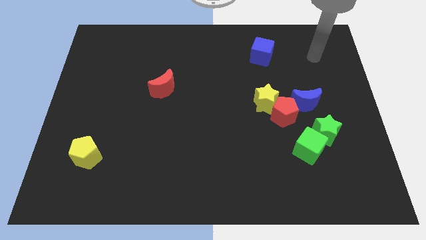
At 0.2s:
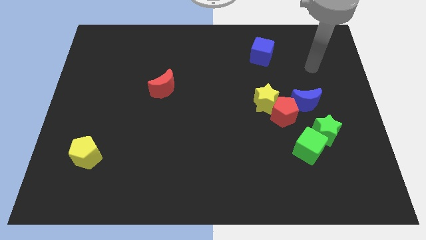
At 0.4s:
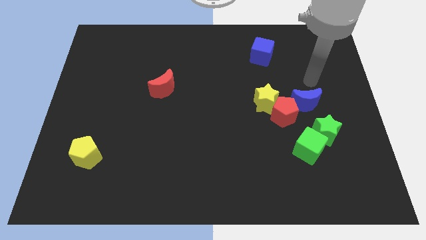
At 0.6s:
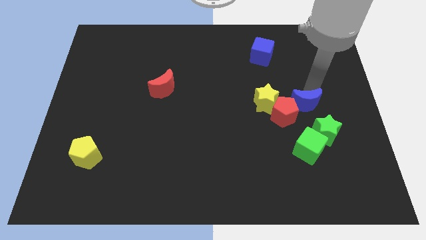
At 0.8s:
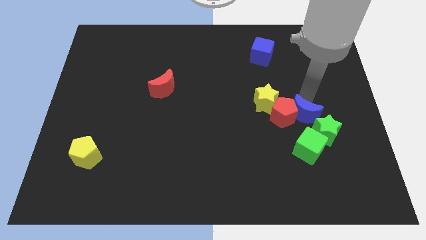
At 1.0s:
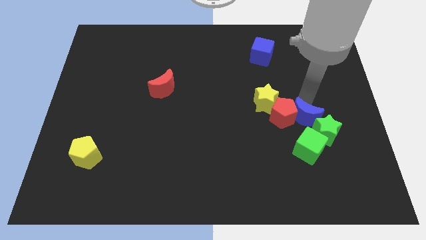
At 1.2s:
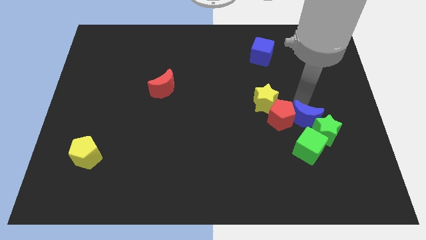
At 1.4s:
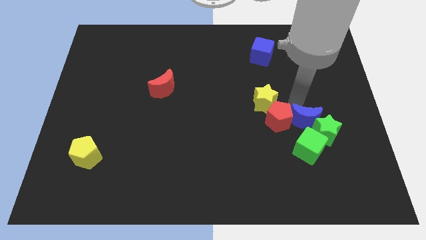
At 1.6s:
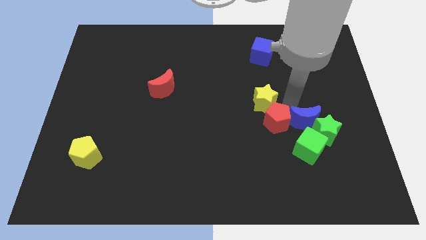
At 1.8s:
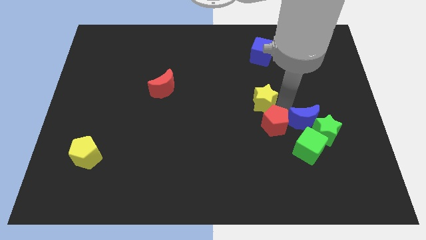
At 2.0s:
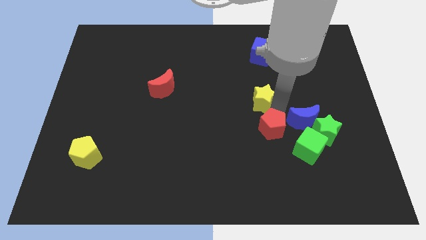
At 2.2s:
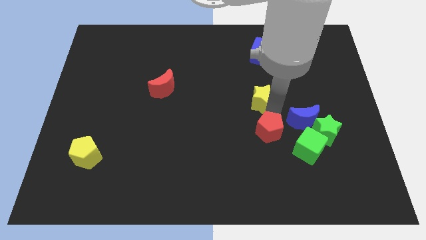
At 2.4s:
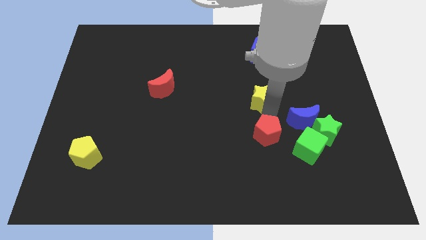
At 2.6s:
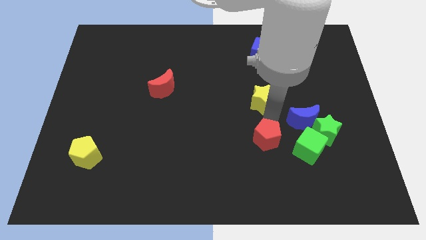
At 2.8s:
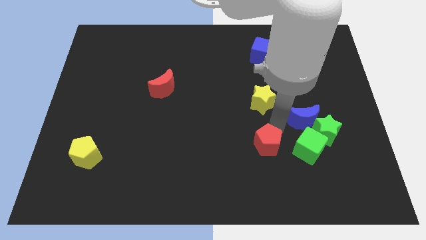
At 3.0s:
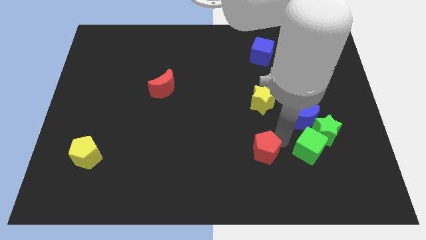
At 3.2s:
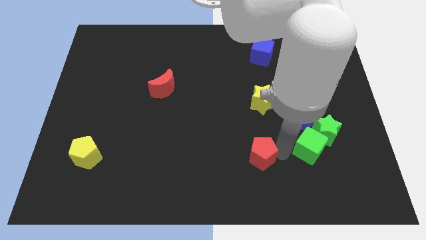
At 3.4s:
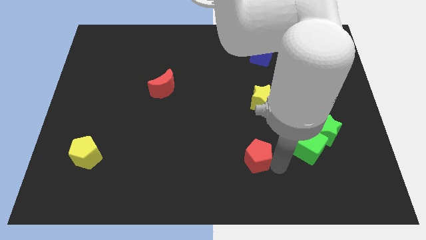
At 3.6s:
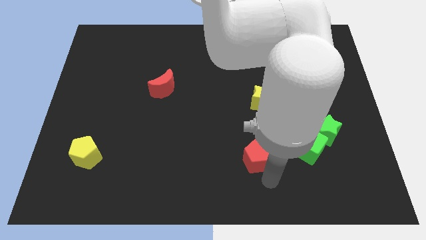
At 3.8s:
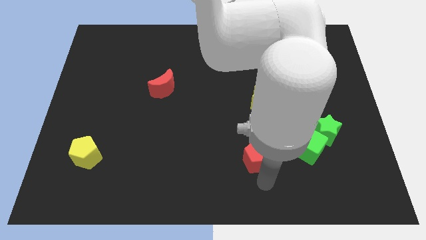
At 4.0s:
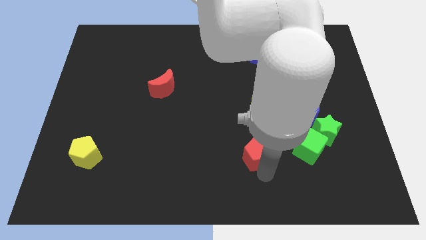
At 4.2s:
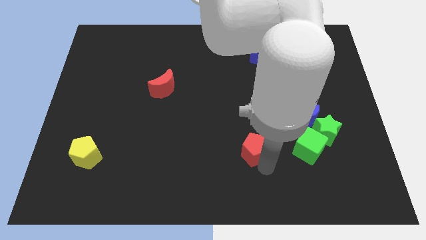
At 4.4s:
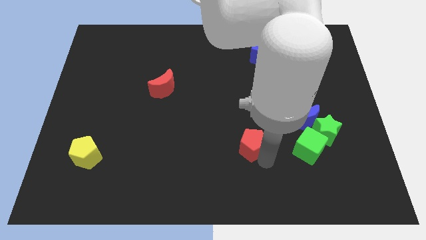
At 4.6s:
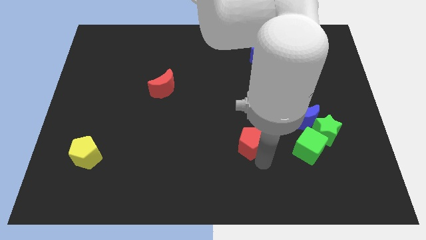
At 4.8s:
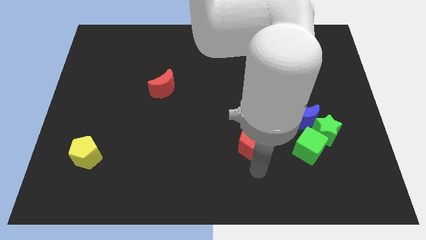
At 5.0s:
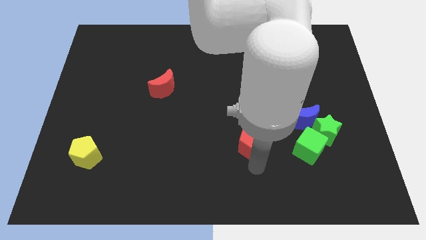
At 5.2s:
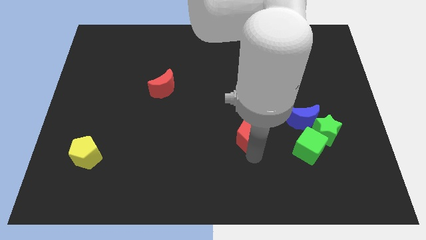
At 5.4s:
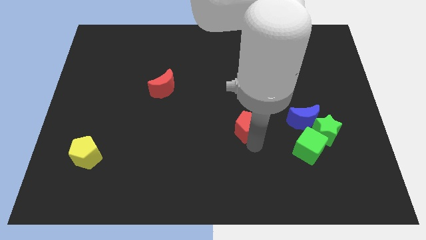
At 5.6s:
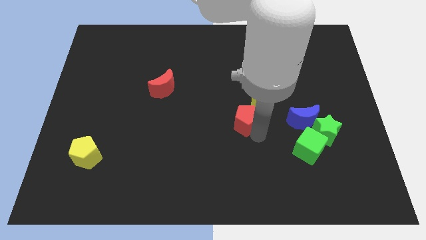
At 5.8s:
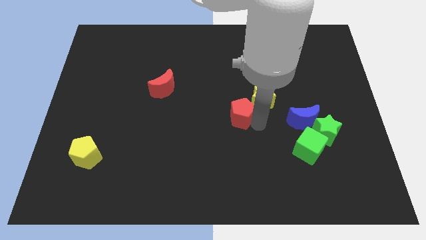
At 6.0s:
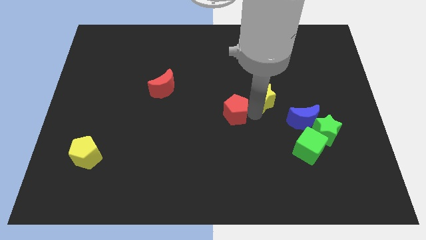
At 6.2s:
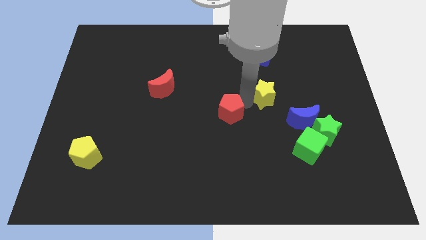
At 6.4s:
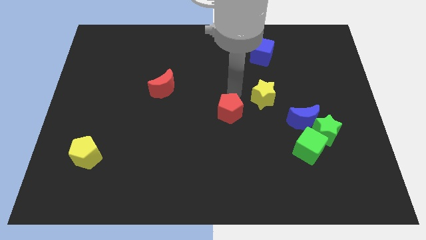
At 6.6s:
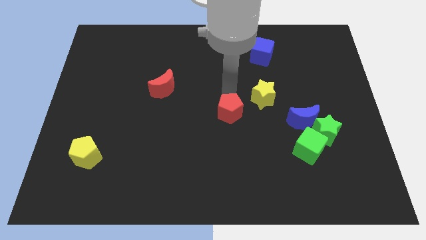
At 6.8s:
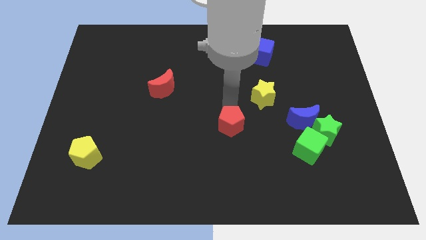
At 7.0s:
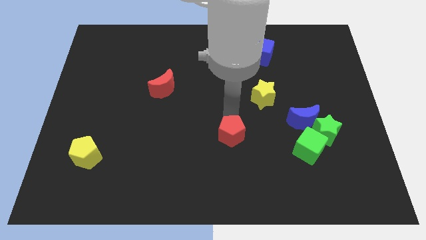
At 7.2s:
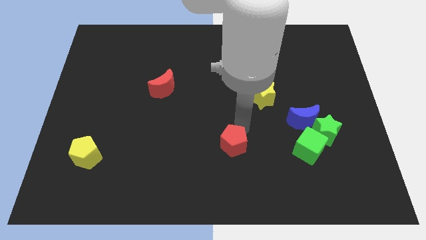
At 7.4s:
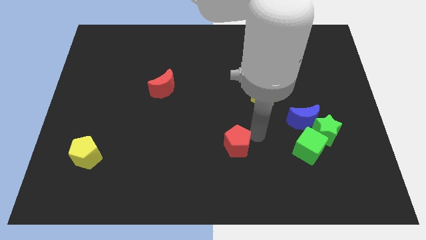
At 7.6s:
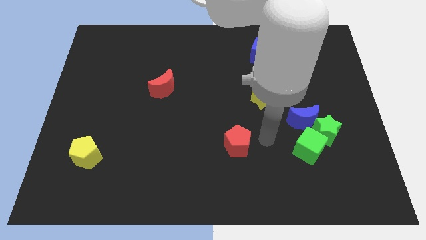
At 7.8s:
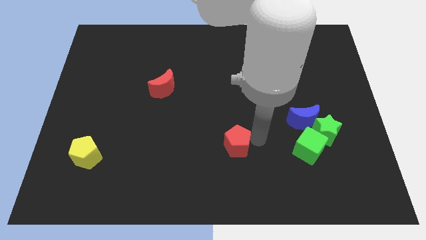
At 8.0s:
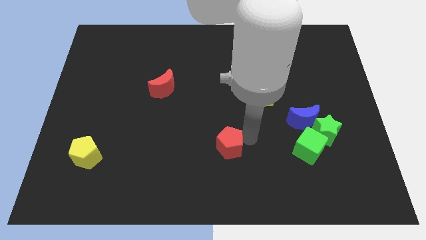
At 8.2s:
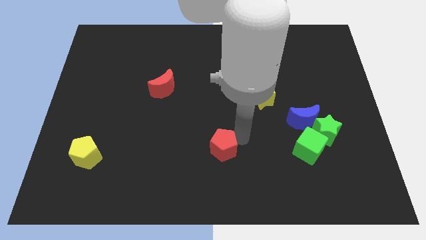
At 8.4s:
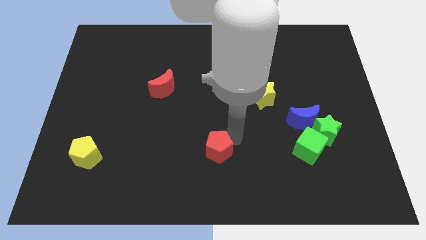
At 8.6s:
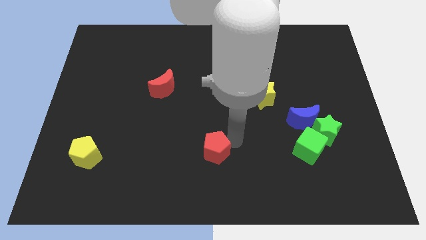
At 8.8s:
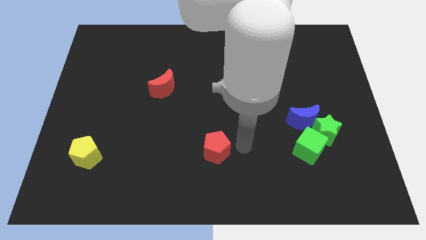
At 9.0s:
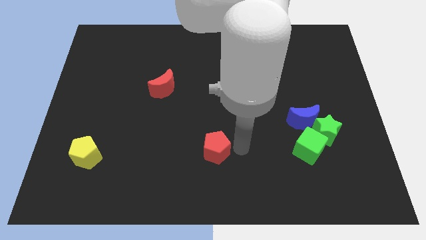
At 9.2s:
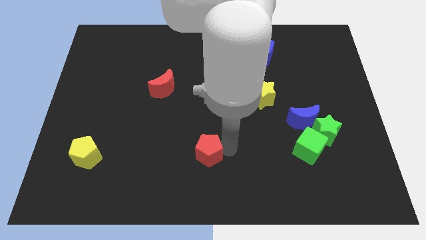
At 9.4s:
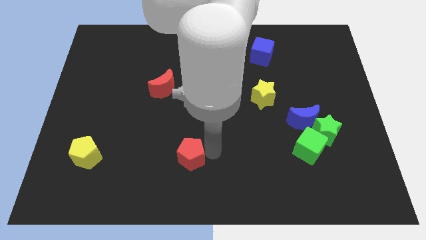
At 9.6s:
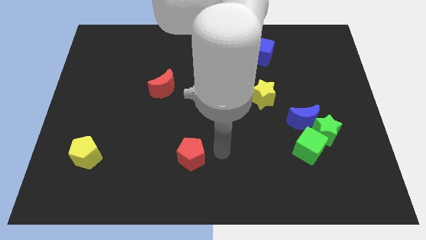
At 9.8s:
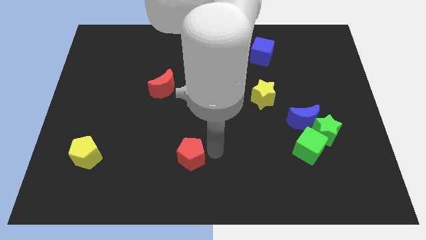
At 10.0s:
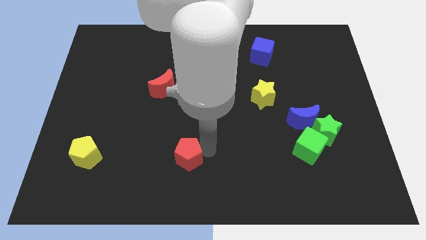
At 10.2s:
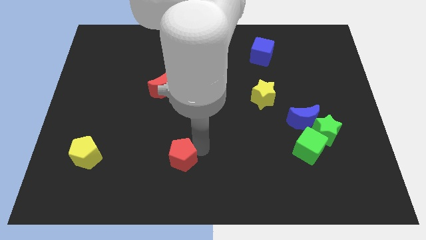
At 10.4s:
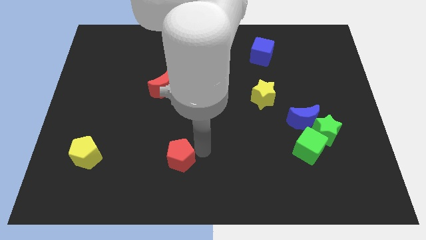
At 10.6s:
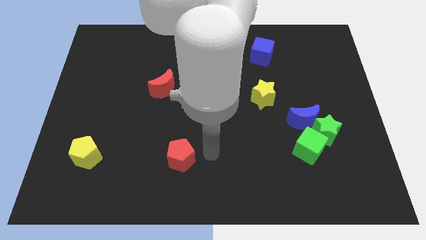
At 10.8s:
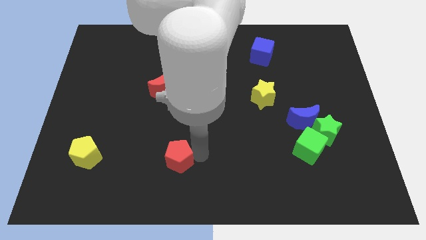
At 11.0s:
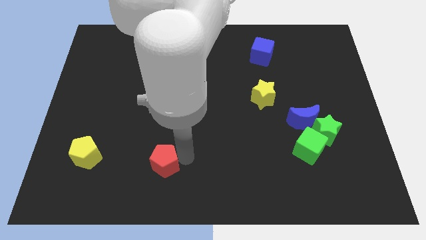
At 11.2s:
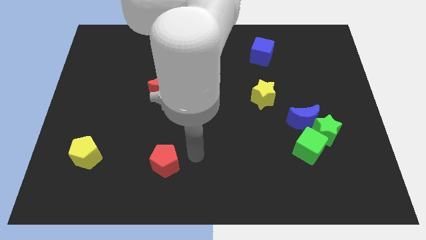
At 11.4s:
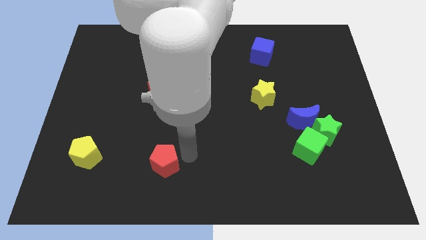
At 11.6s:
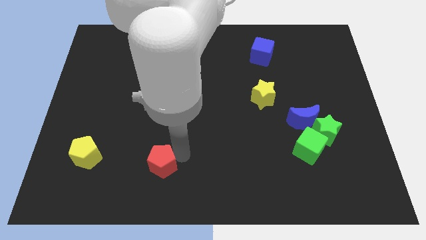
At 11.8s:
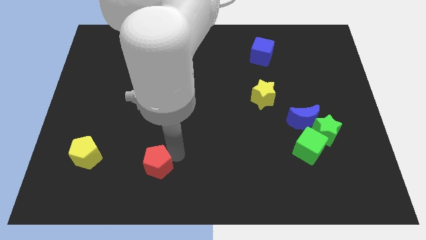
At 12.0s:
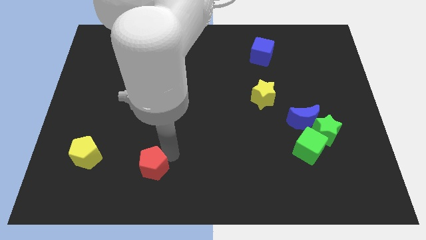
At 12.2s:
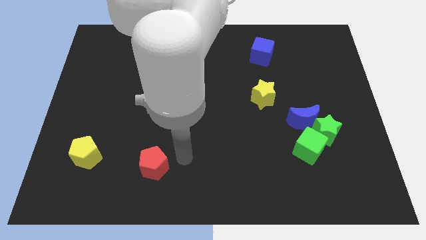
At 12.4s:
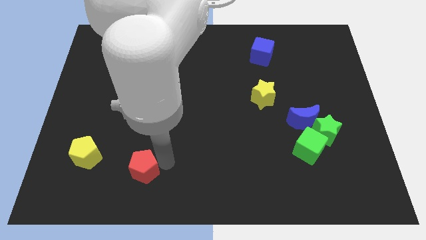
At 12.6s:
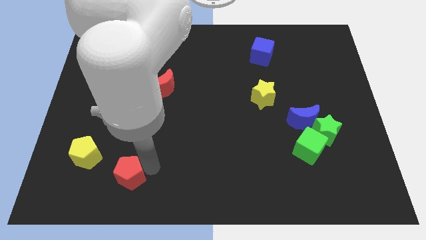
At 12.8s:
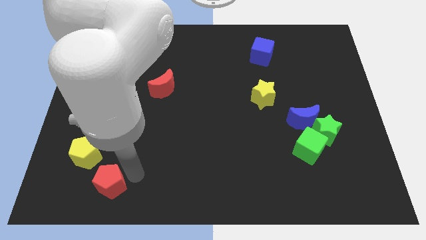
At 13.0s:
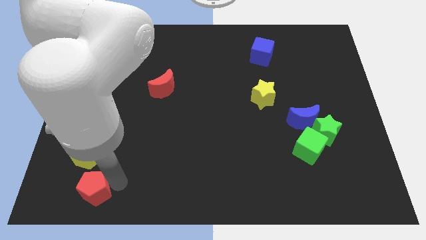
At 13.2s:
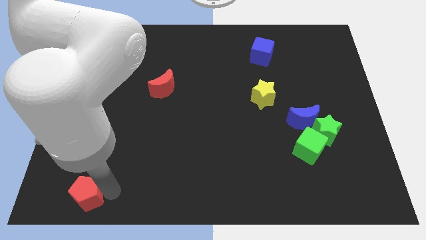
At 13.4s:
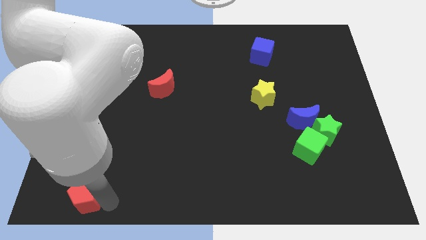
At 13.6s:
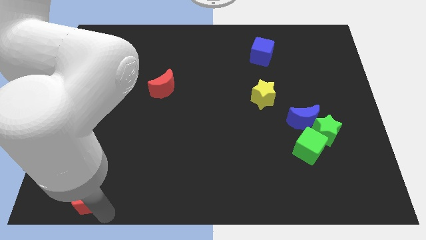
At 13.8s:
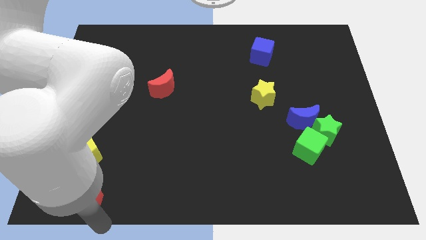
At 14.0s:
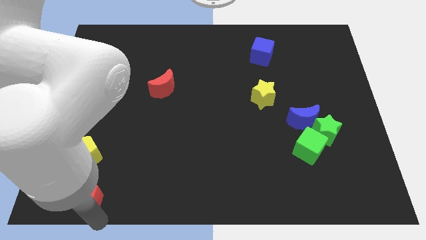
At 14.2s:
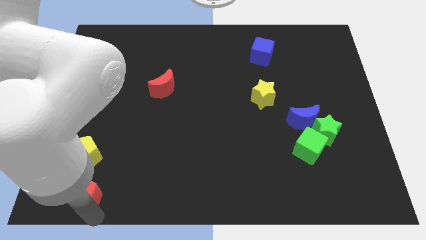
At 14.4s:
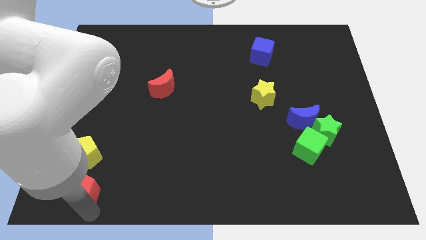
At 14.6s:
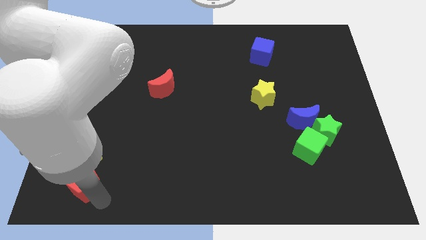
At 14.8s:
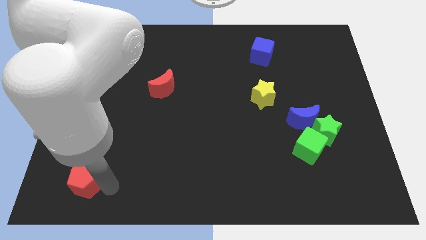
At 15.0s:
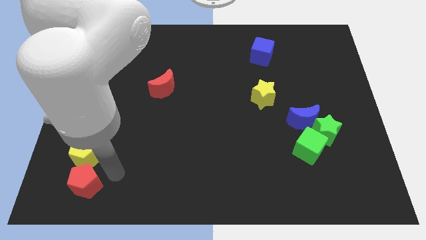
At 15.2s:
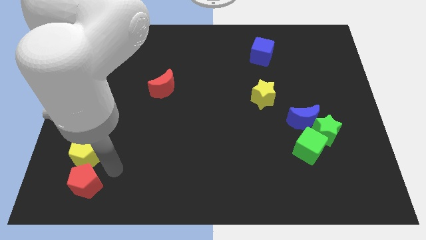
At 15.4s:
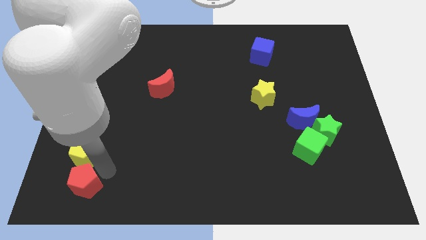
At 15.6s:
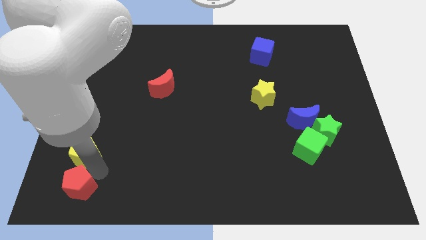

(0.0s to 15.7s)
move the red pentagon to the lower left corner
